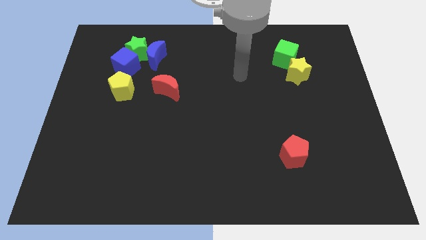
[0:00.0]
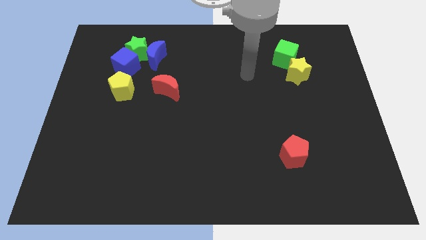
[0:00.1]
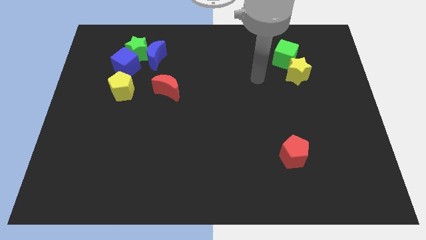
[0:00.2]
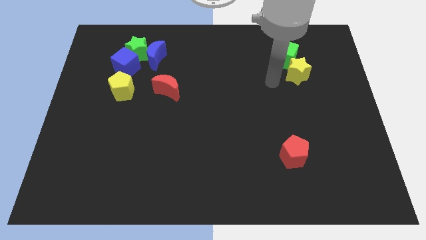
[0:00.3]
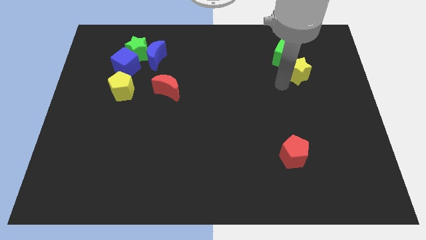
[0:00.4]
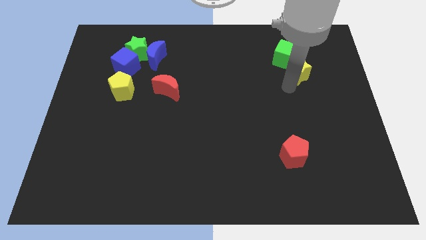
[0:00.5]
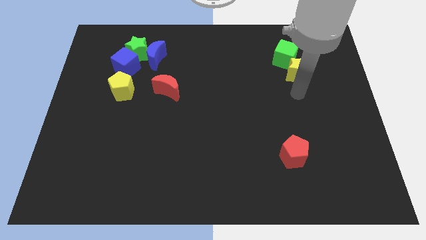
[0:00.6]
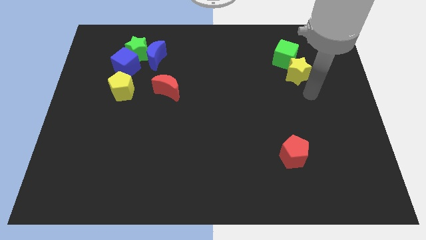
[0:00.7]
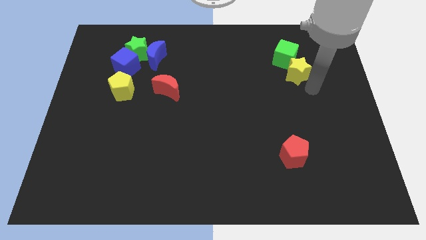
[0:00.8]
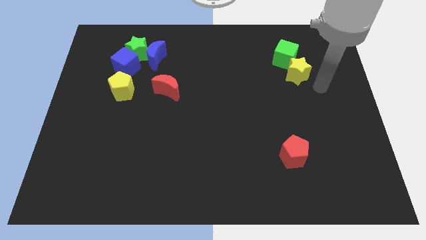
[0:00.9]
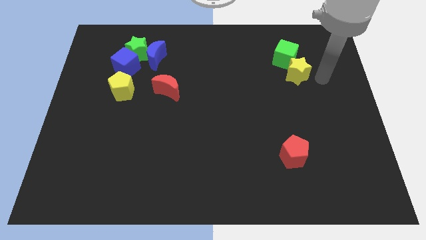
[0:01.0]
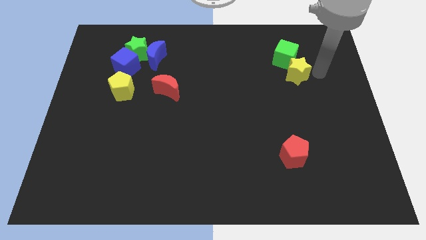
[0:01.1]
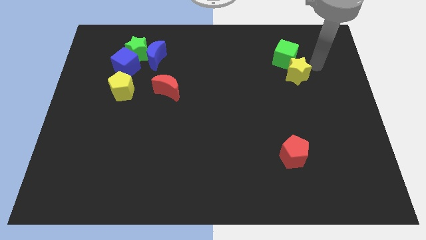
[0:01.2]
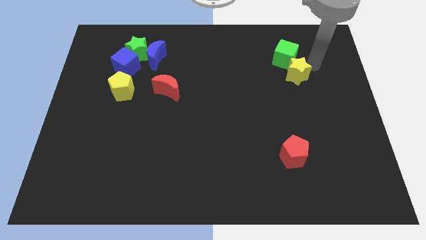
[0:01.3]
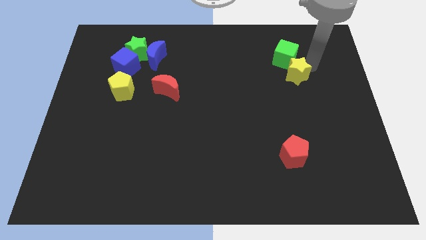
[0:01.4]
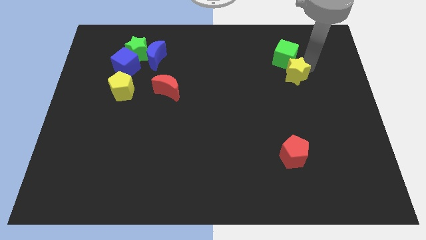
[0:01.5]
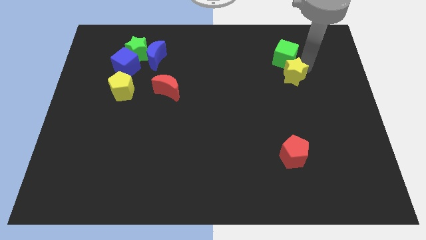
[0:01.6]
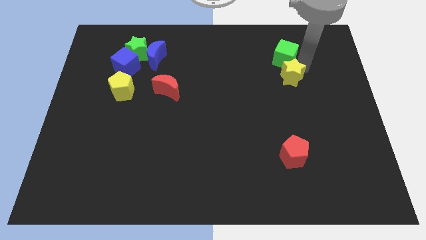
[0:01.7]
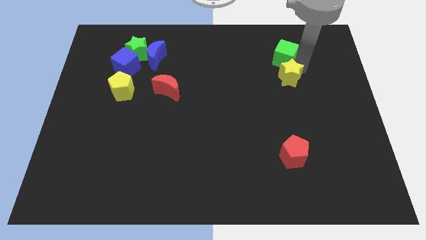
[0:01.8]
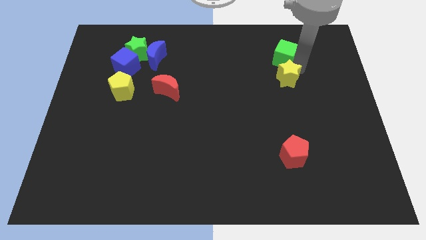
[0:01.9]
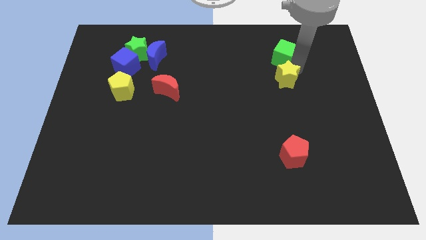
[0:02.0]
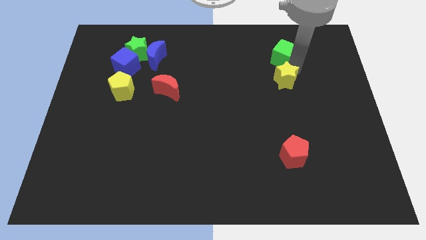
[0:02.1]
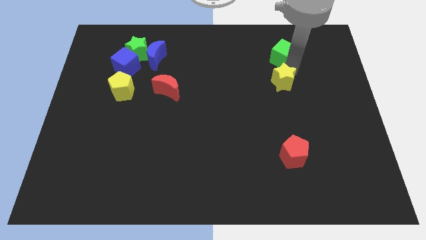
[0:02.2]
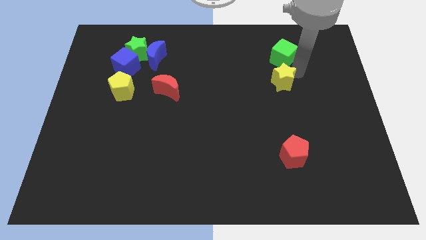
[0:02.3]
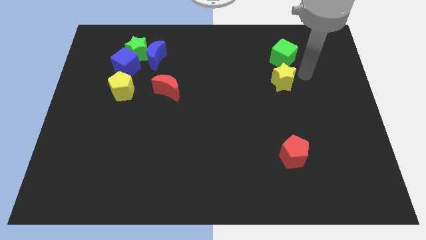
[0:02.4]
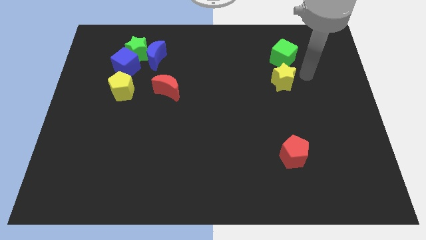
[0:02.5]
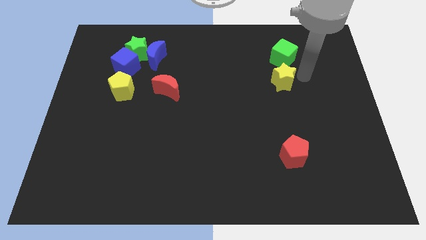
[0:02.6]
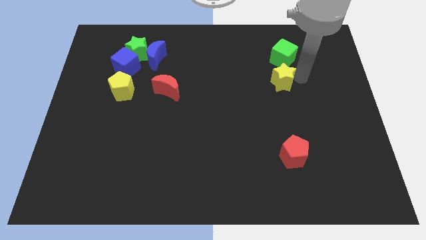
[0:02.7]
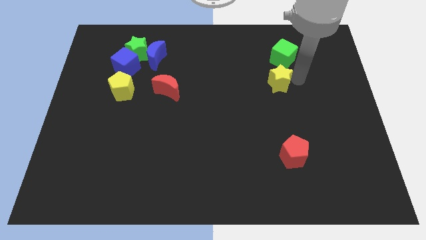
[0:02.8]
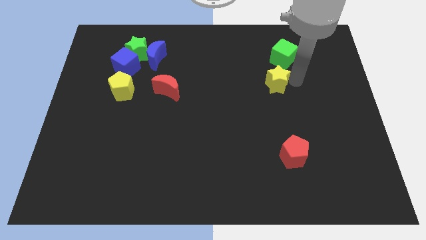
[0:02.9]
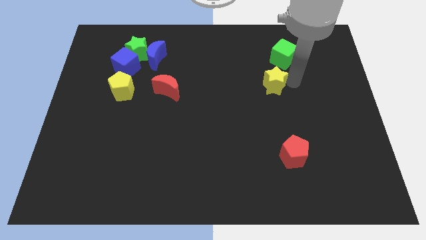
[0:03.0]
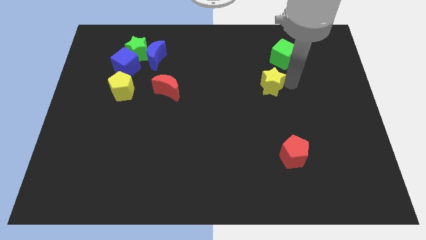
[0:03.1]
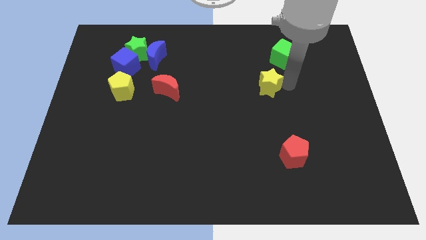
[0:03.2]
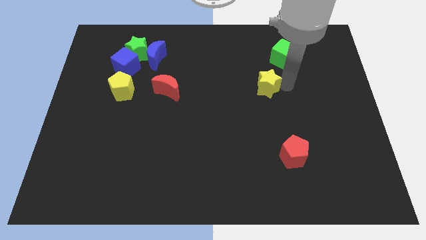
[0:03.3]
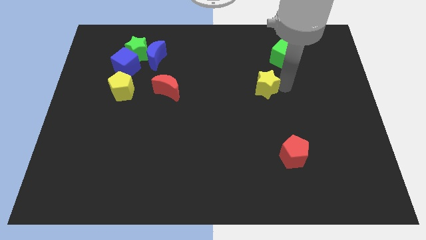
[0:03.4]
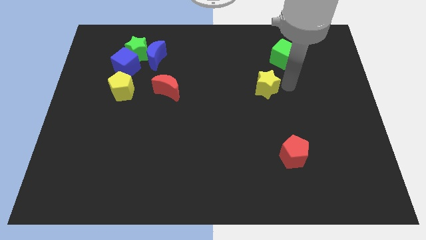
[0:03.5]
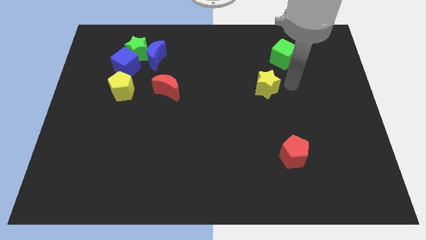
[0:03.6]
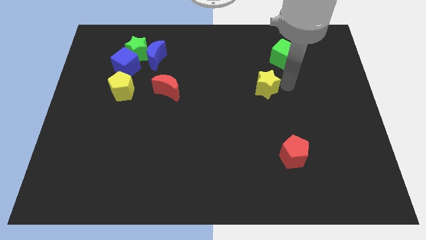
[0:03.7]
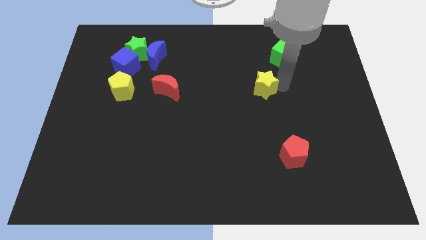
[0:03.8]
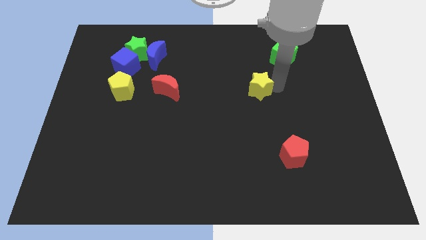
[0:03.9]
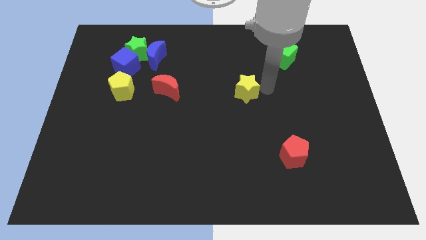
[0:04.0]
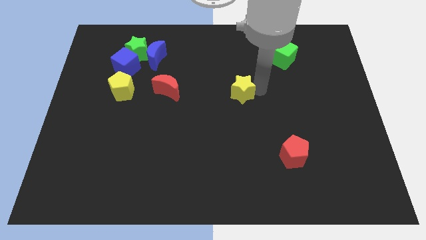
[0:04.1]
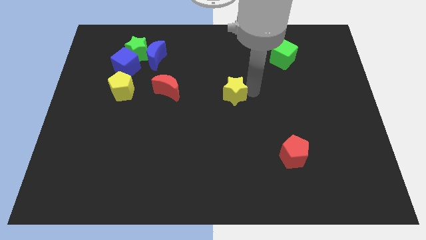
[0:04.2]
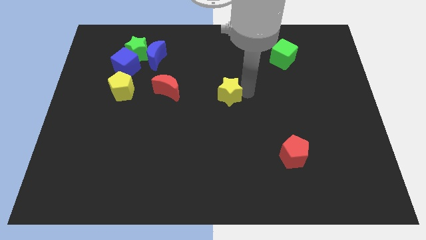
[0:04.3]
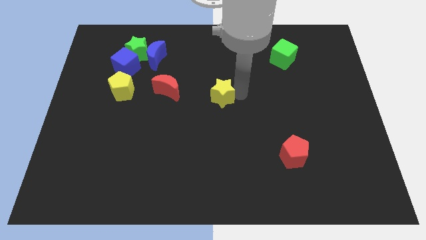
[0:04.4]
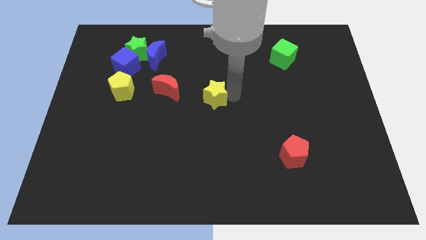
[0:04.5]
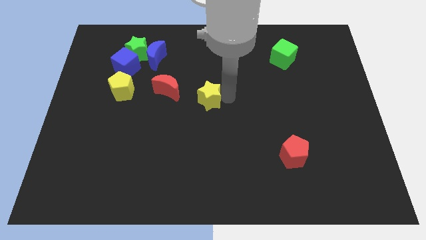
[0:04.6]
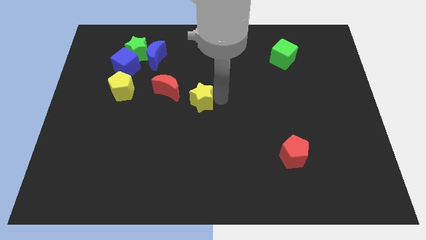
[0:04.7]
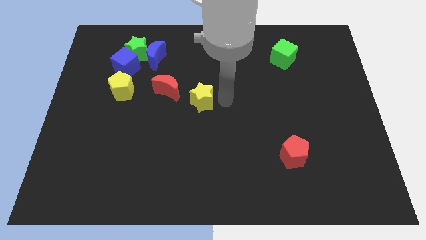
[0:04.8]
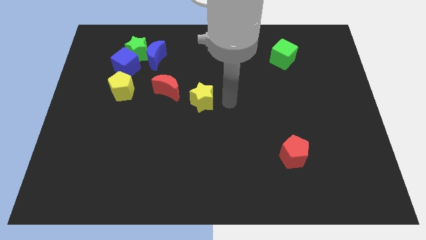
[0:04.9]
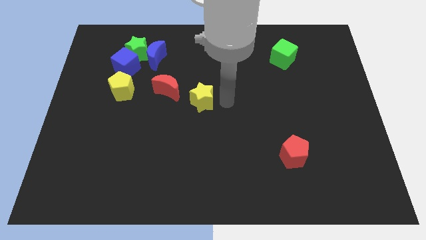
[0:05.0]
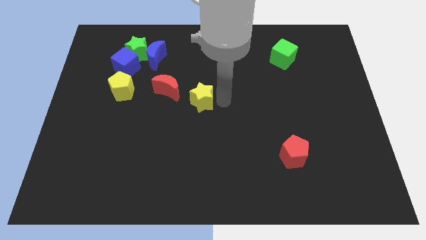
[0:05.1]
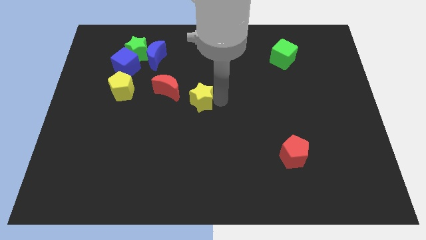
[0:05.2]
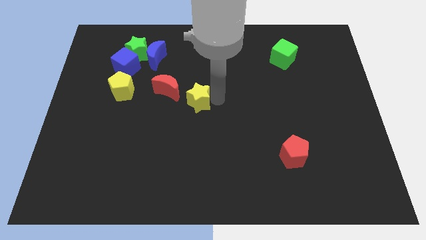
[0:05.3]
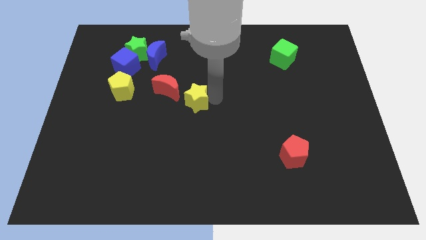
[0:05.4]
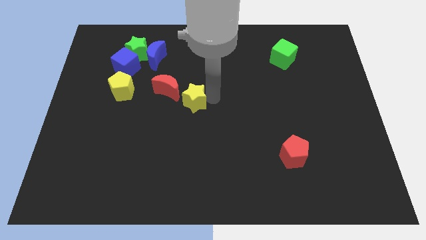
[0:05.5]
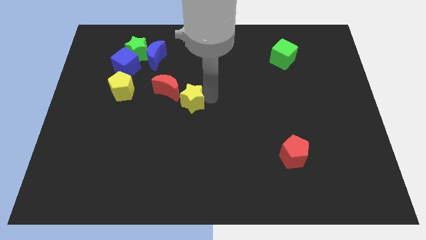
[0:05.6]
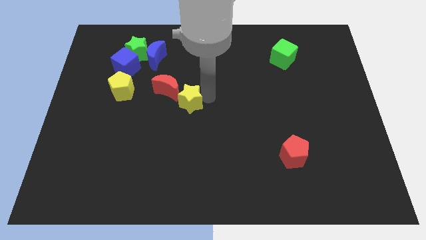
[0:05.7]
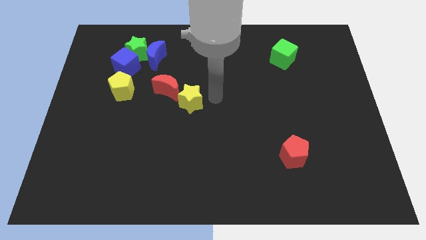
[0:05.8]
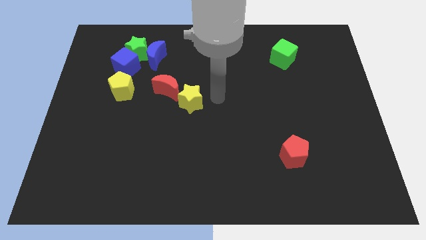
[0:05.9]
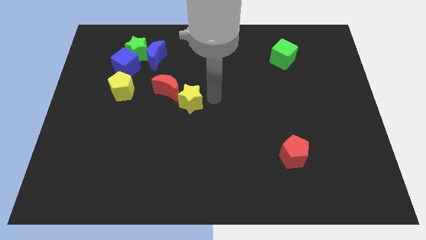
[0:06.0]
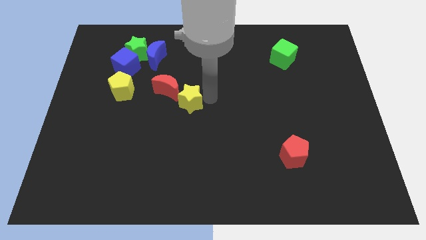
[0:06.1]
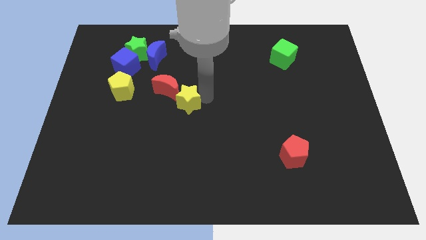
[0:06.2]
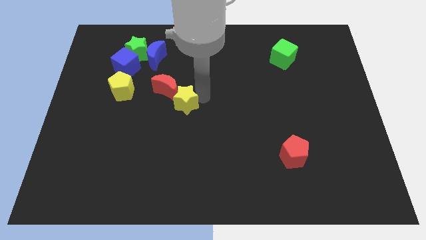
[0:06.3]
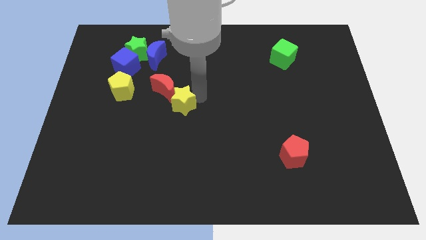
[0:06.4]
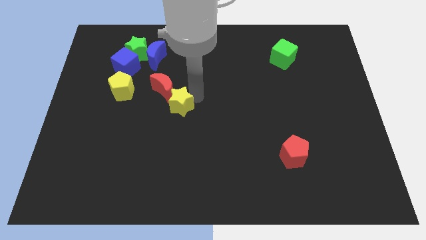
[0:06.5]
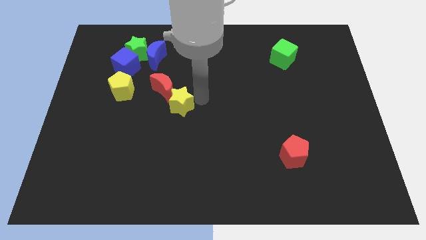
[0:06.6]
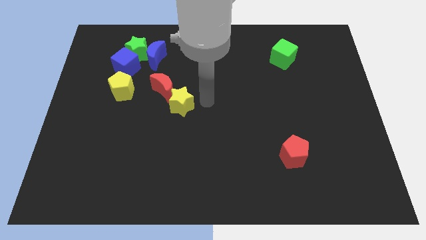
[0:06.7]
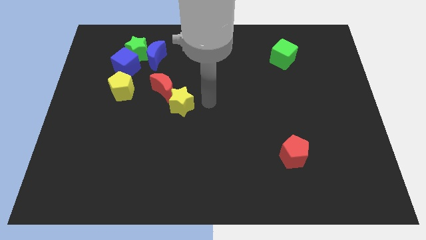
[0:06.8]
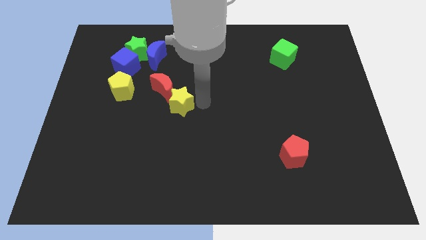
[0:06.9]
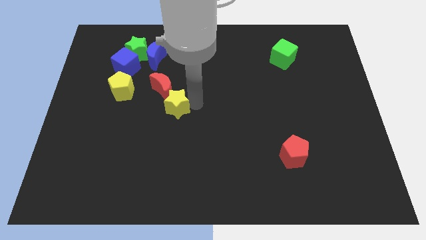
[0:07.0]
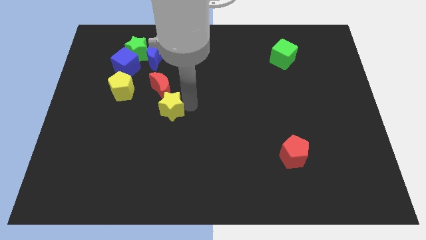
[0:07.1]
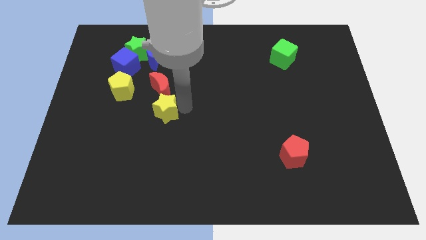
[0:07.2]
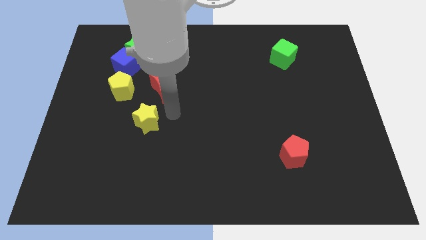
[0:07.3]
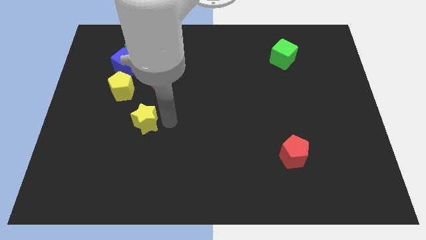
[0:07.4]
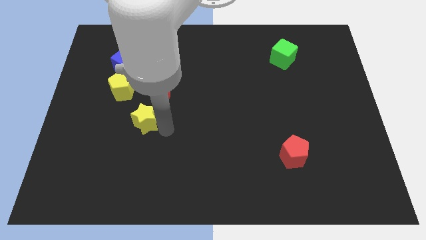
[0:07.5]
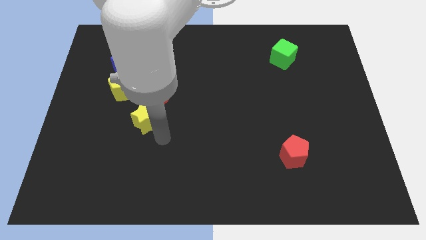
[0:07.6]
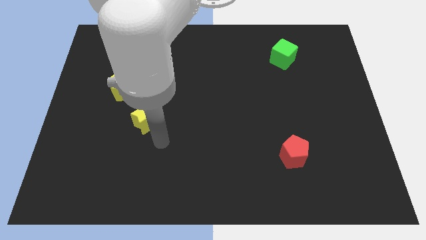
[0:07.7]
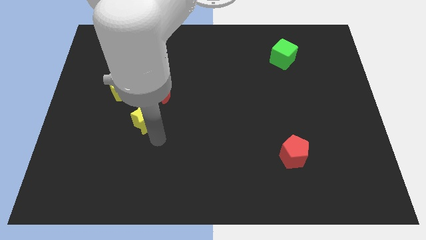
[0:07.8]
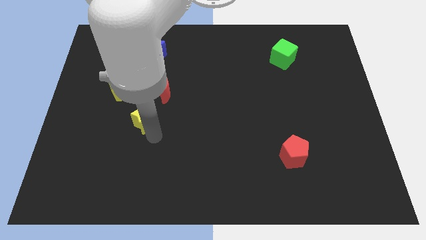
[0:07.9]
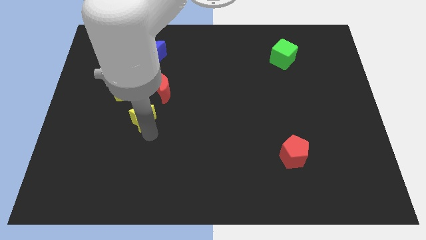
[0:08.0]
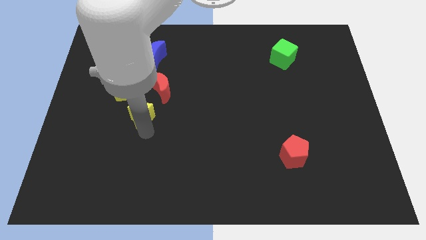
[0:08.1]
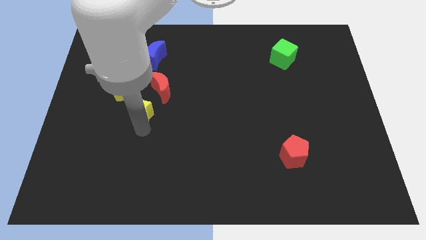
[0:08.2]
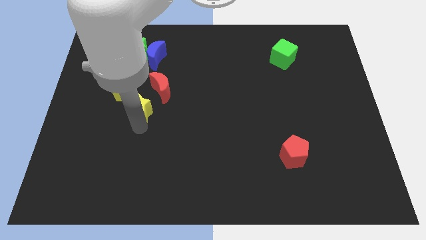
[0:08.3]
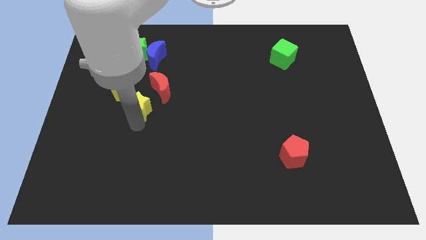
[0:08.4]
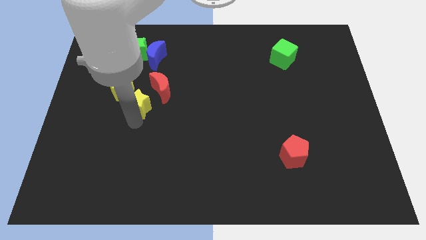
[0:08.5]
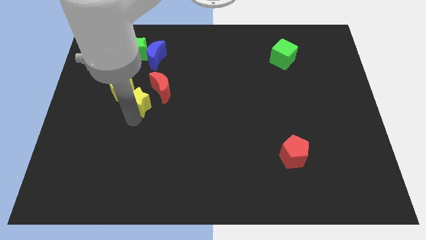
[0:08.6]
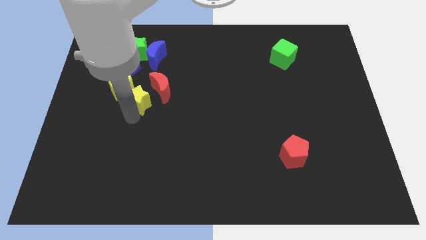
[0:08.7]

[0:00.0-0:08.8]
move the yellow star close to the yellow pentagon
